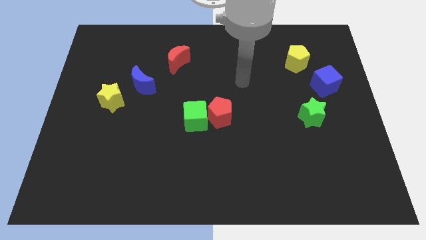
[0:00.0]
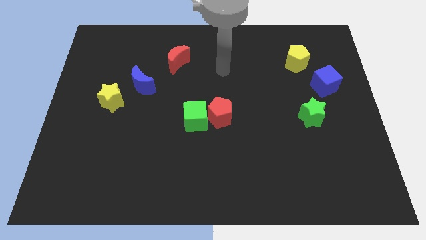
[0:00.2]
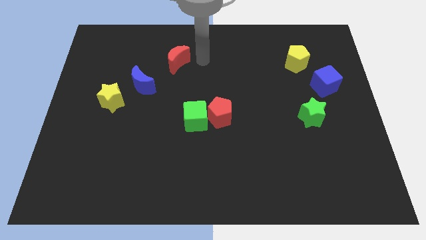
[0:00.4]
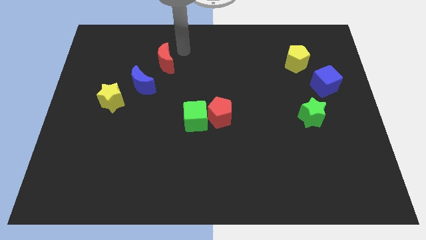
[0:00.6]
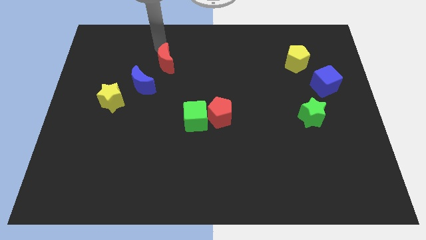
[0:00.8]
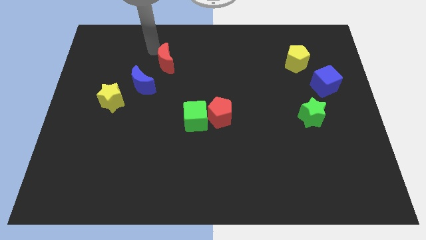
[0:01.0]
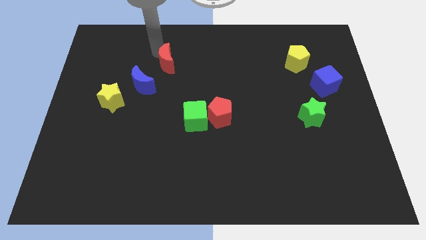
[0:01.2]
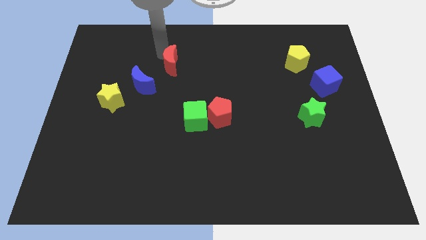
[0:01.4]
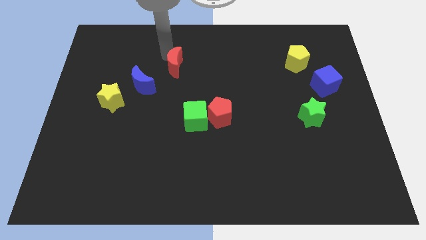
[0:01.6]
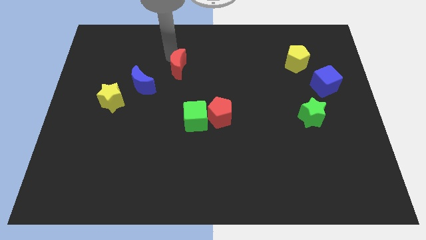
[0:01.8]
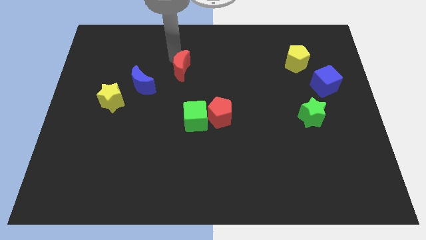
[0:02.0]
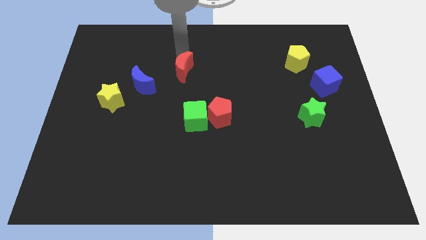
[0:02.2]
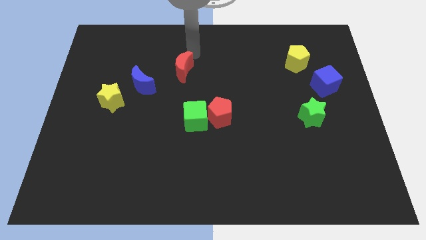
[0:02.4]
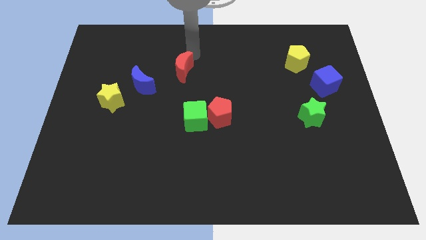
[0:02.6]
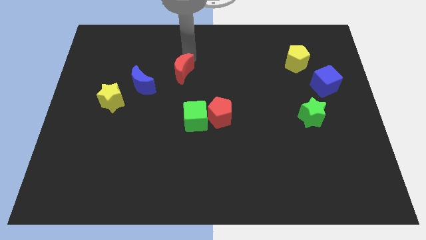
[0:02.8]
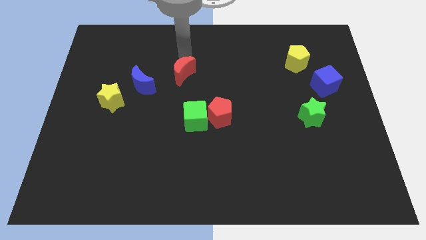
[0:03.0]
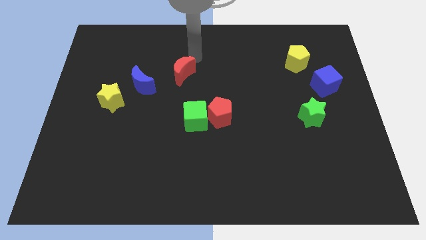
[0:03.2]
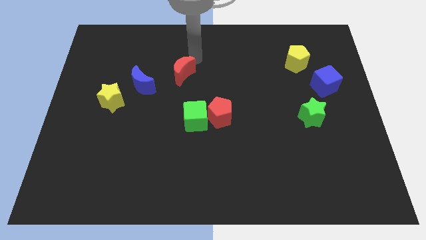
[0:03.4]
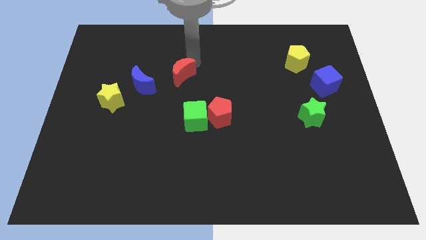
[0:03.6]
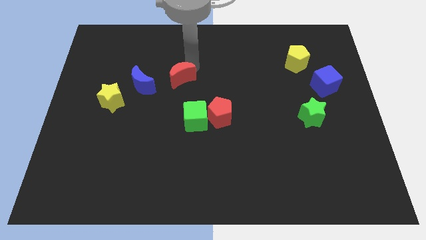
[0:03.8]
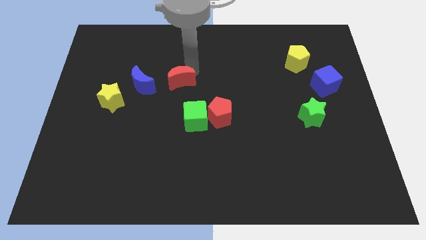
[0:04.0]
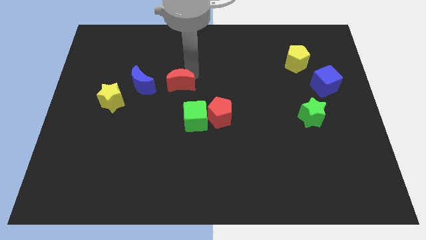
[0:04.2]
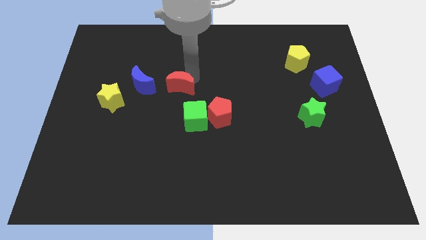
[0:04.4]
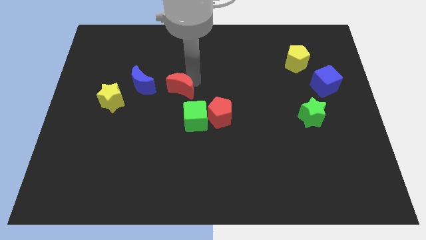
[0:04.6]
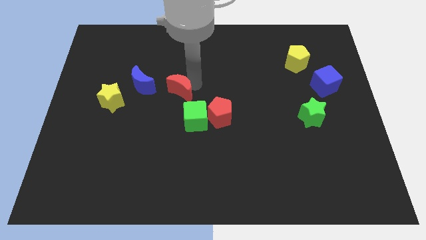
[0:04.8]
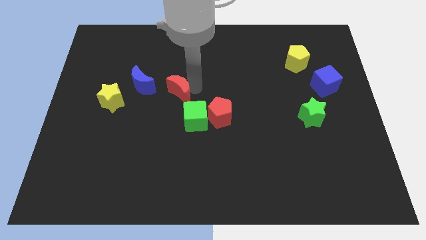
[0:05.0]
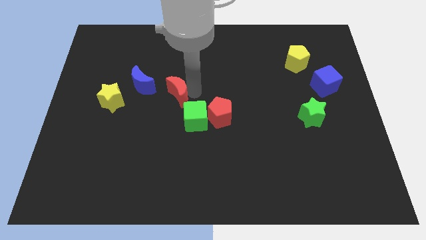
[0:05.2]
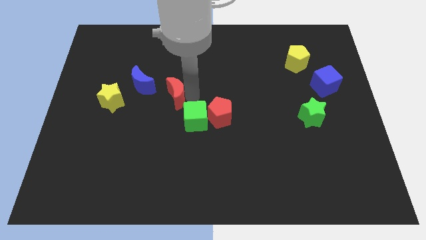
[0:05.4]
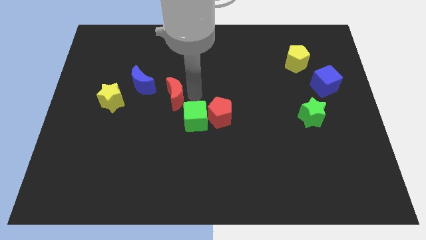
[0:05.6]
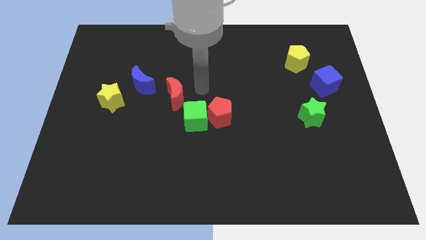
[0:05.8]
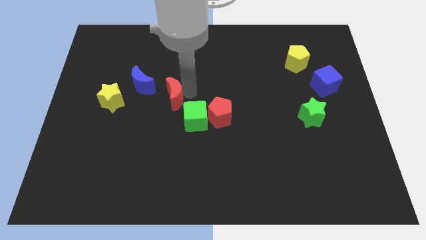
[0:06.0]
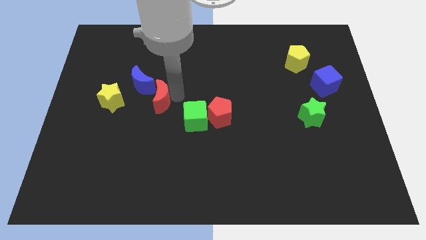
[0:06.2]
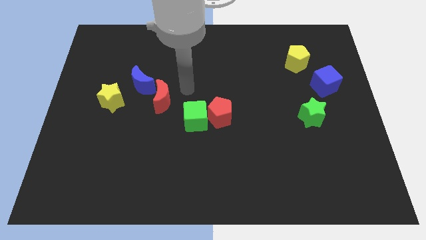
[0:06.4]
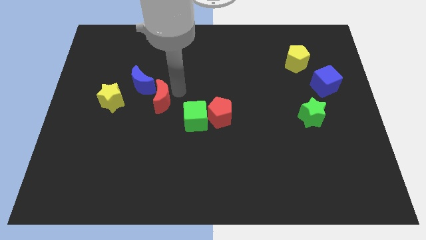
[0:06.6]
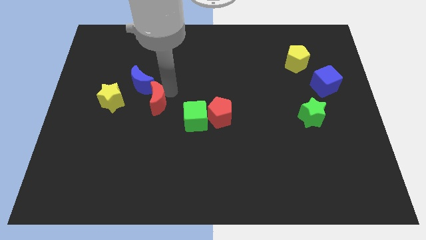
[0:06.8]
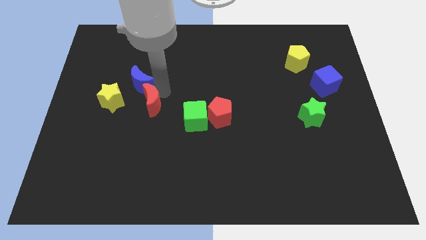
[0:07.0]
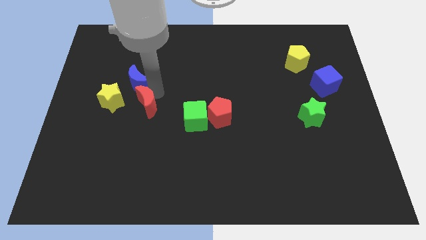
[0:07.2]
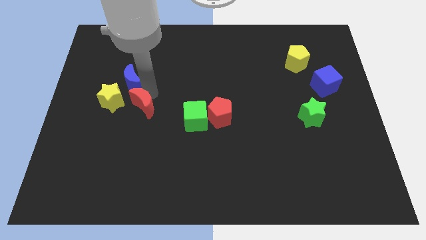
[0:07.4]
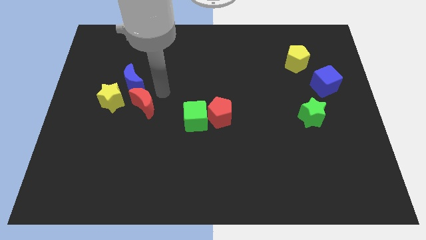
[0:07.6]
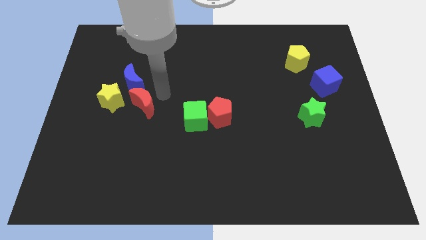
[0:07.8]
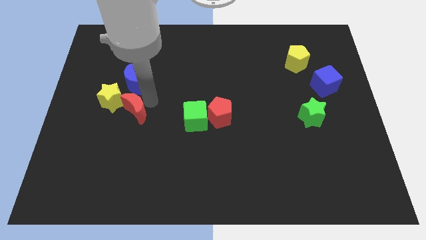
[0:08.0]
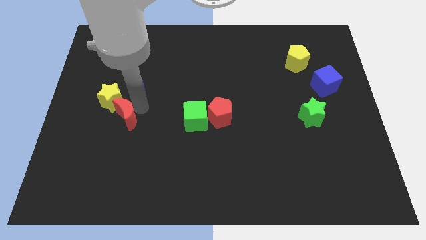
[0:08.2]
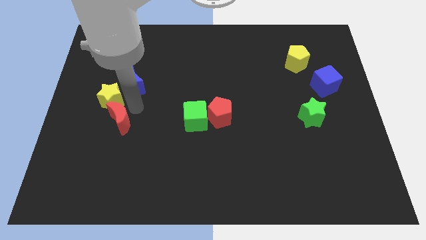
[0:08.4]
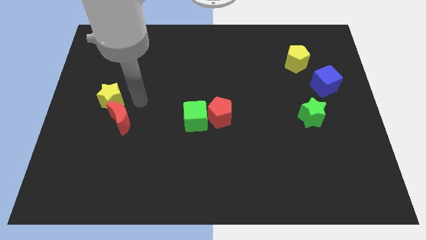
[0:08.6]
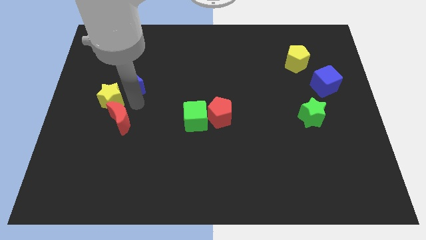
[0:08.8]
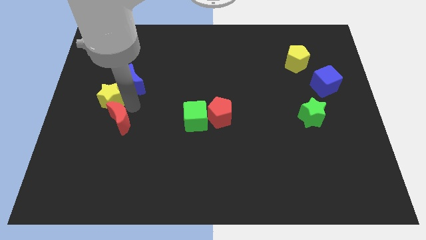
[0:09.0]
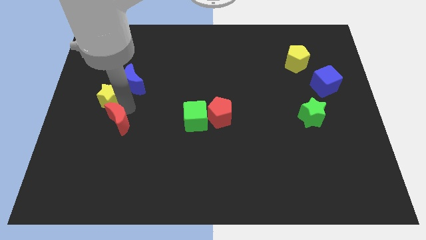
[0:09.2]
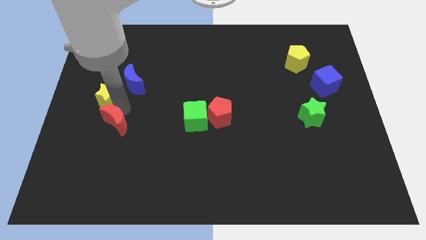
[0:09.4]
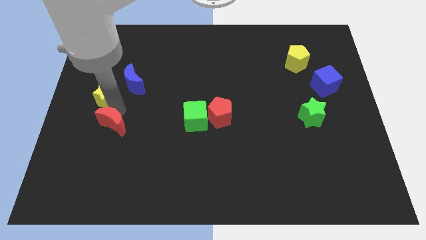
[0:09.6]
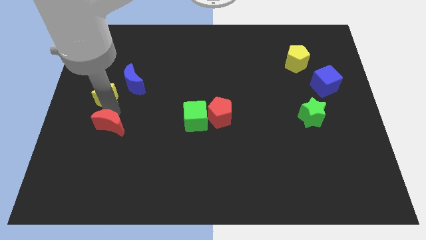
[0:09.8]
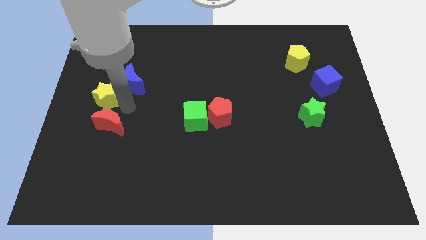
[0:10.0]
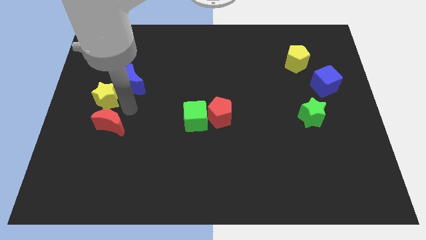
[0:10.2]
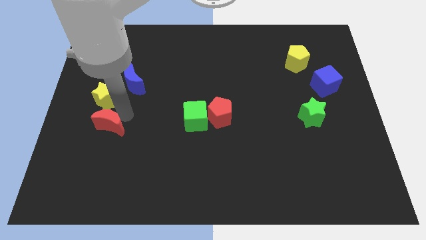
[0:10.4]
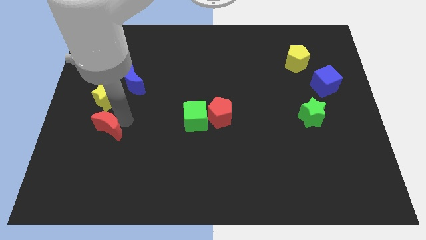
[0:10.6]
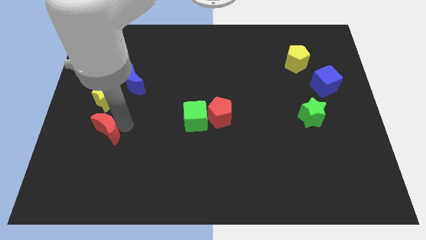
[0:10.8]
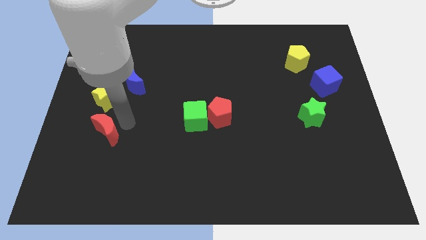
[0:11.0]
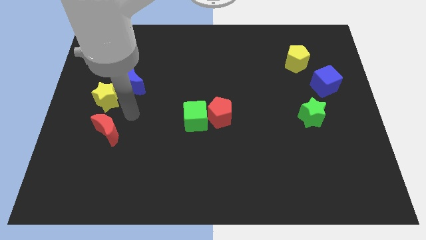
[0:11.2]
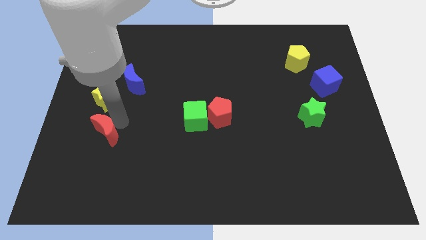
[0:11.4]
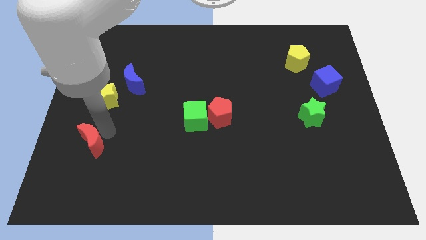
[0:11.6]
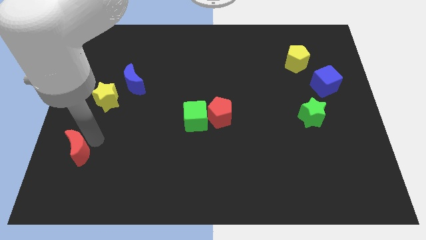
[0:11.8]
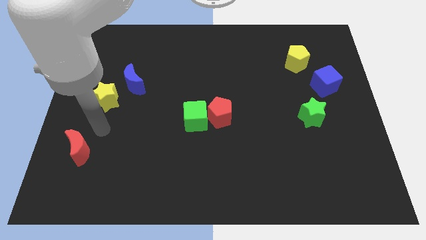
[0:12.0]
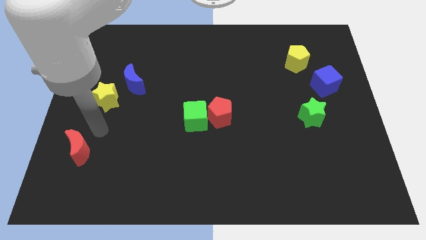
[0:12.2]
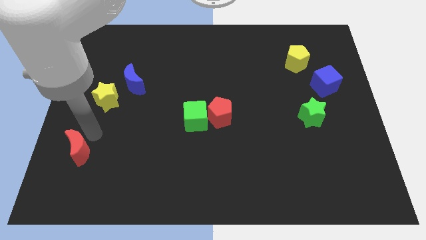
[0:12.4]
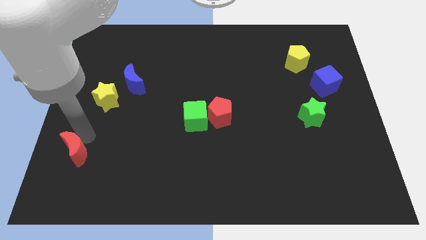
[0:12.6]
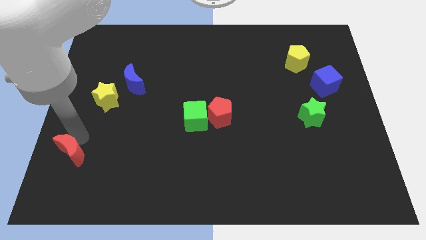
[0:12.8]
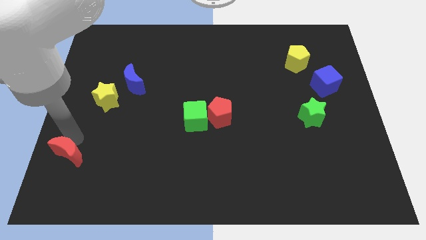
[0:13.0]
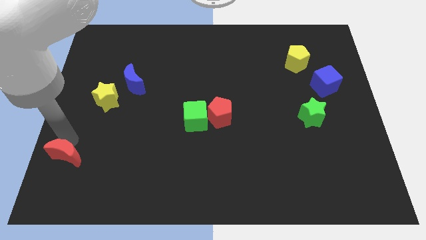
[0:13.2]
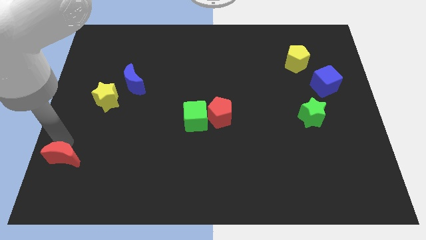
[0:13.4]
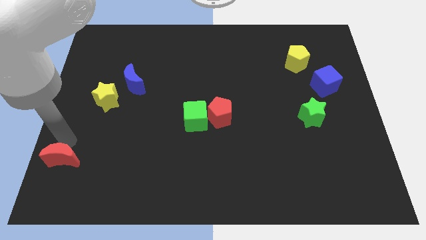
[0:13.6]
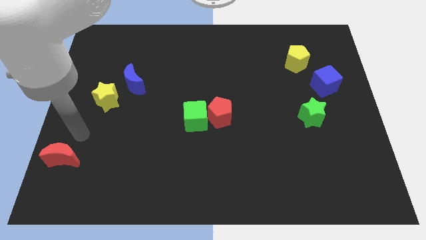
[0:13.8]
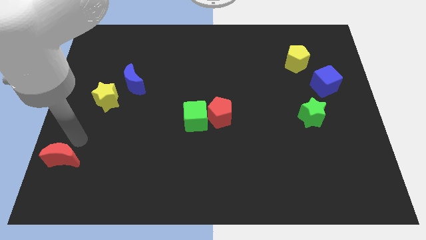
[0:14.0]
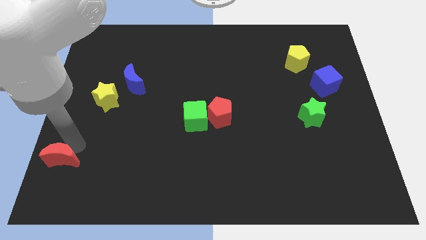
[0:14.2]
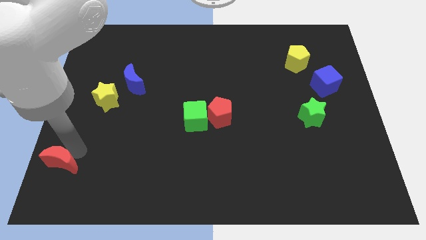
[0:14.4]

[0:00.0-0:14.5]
push the red moon to the bottom left of the board
